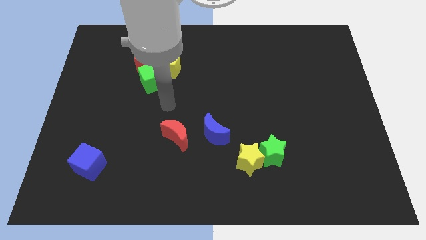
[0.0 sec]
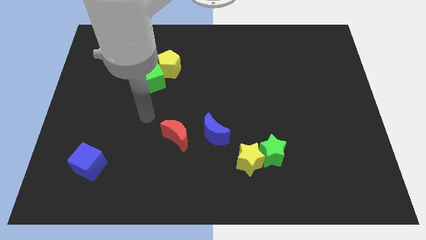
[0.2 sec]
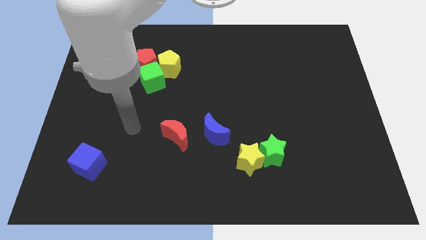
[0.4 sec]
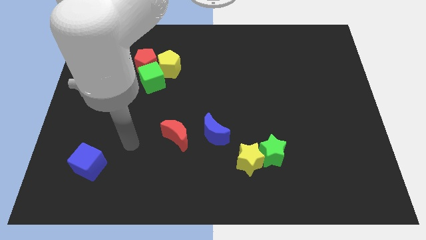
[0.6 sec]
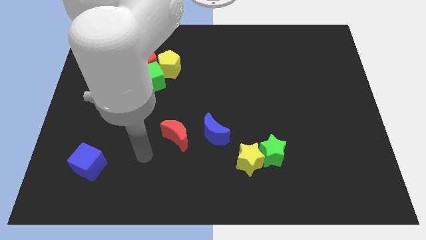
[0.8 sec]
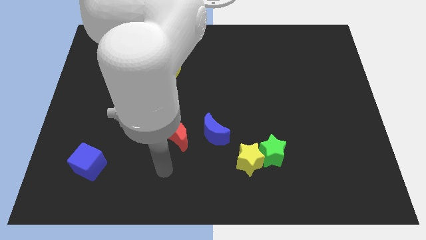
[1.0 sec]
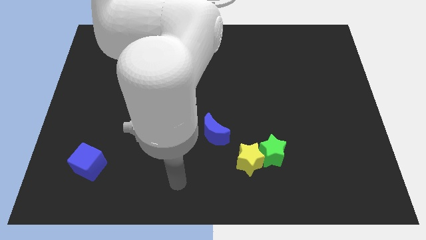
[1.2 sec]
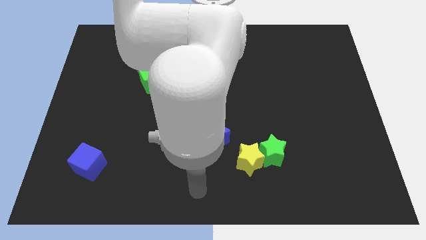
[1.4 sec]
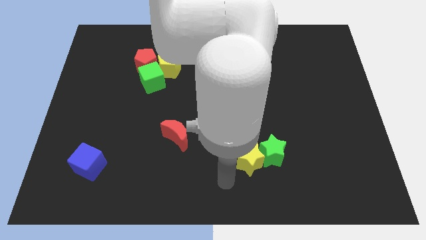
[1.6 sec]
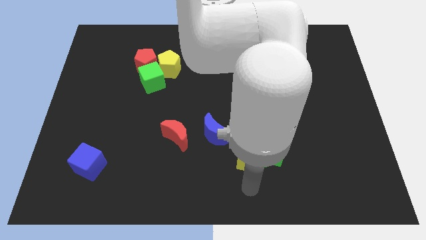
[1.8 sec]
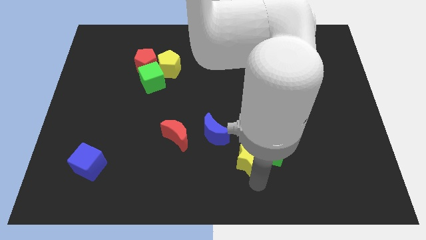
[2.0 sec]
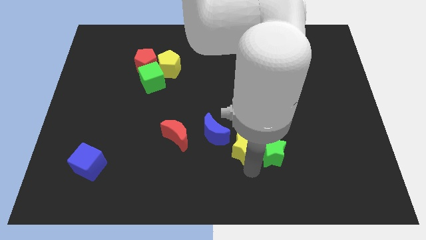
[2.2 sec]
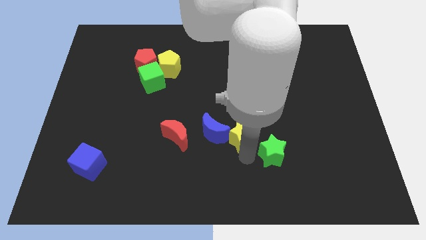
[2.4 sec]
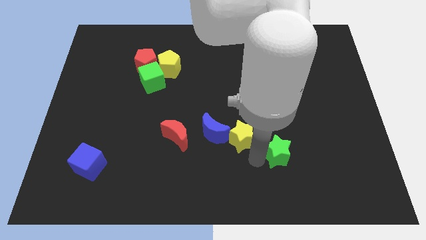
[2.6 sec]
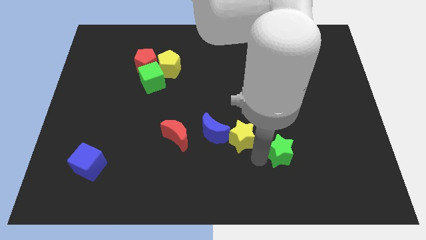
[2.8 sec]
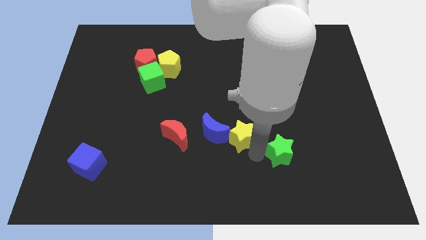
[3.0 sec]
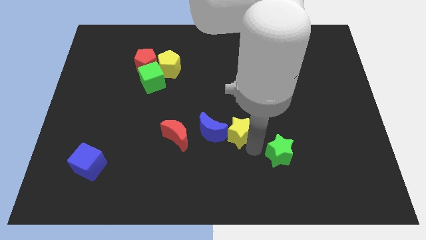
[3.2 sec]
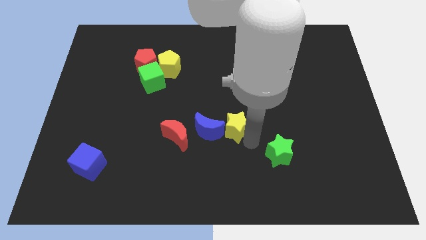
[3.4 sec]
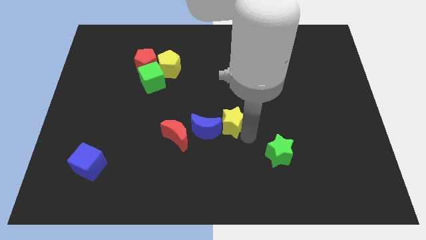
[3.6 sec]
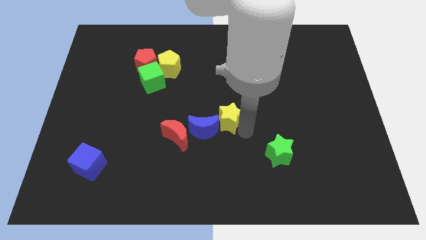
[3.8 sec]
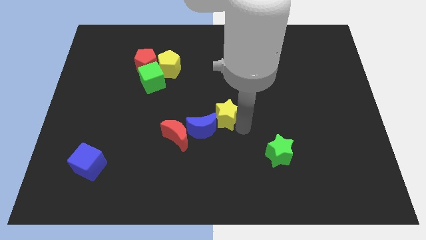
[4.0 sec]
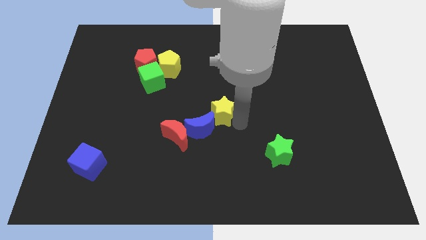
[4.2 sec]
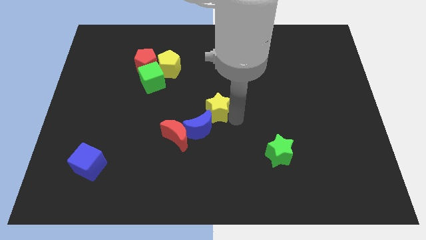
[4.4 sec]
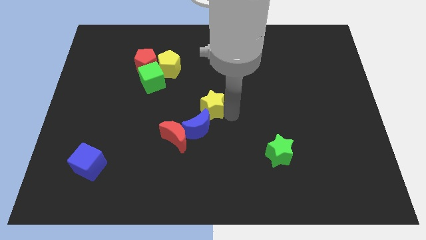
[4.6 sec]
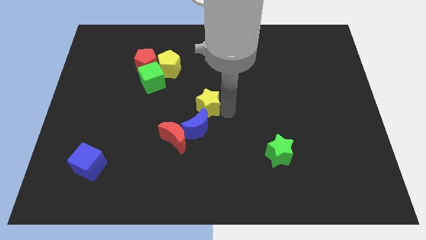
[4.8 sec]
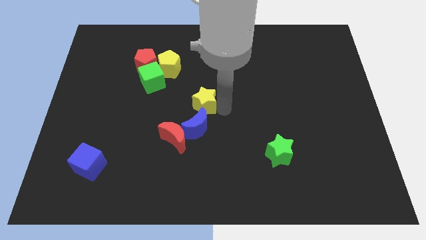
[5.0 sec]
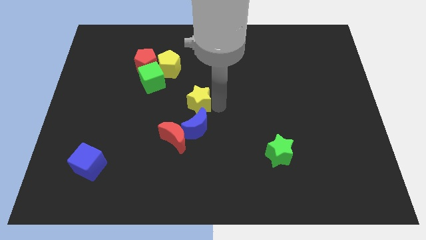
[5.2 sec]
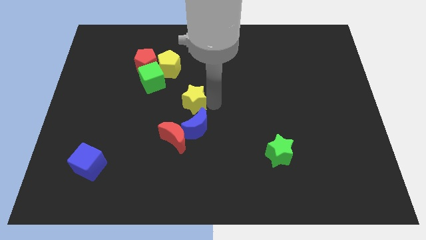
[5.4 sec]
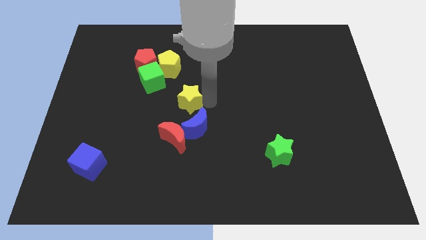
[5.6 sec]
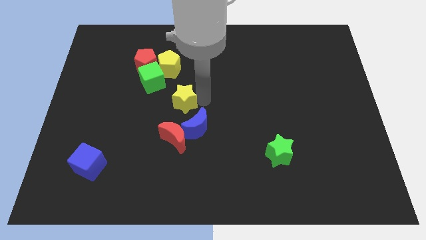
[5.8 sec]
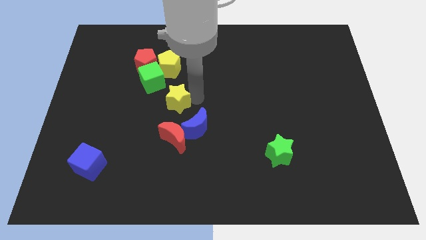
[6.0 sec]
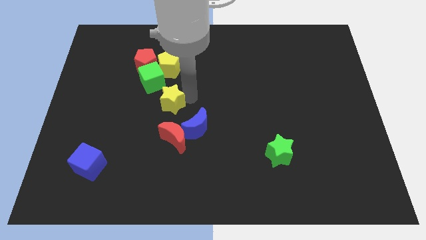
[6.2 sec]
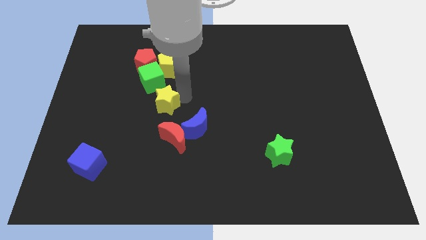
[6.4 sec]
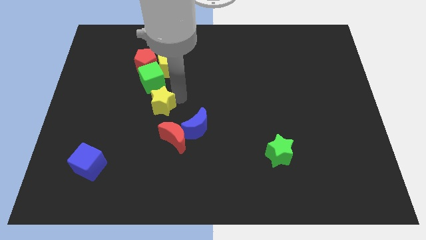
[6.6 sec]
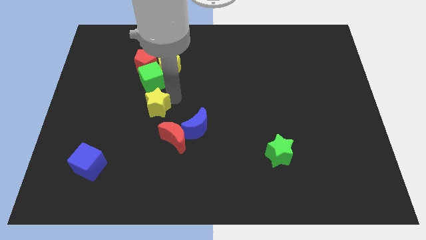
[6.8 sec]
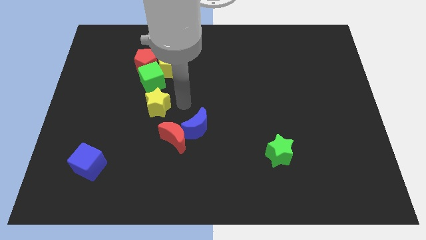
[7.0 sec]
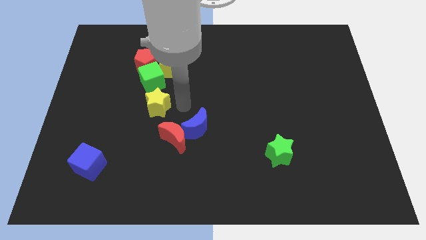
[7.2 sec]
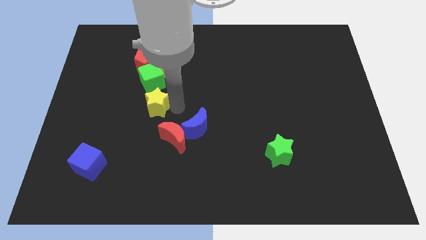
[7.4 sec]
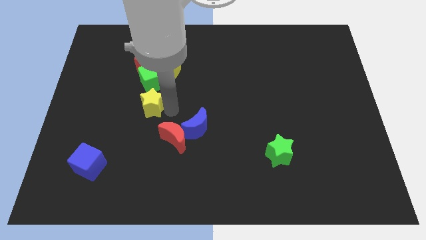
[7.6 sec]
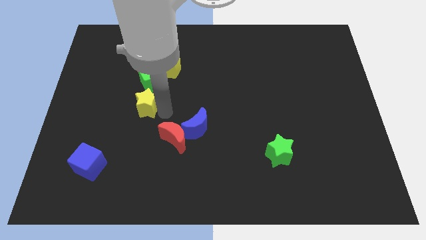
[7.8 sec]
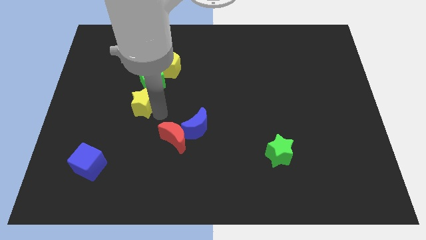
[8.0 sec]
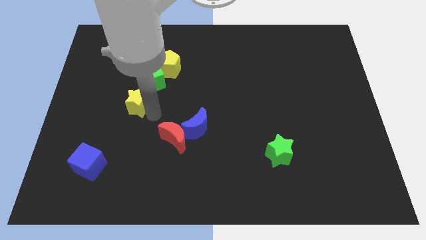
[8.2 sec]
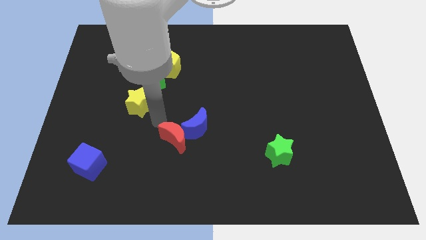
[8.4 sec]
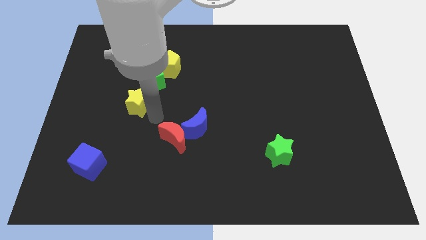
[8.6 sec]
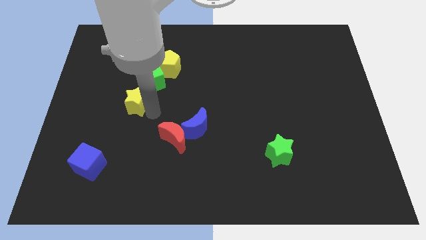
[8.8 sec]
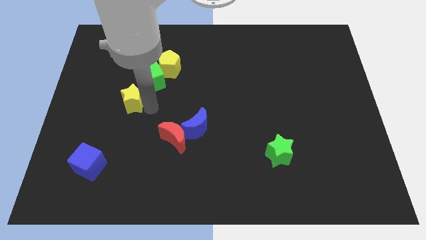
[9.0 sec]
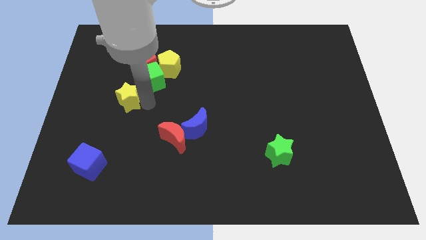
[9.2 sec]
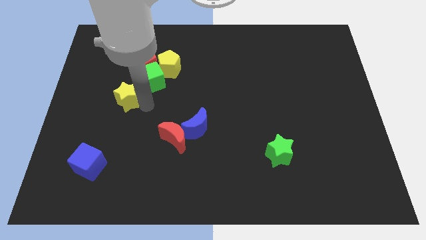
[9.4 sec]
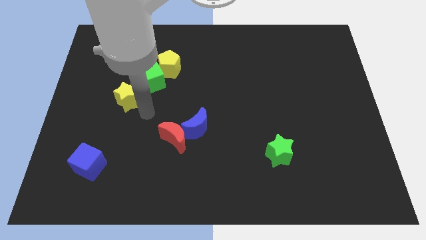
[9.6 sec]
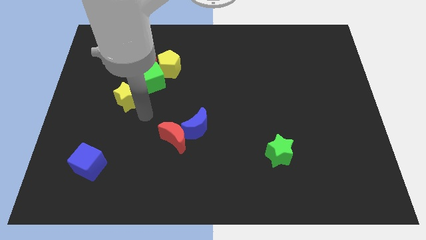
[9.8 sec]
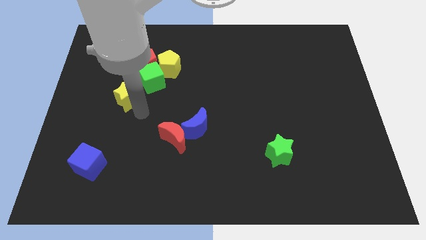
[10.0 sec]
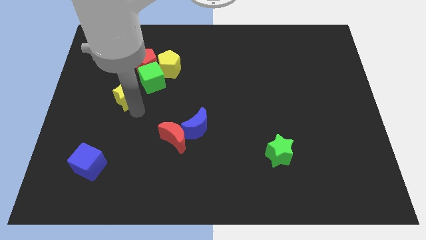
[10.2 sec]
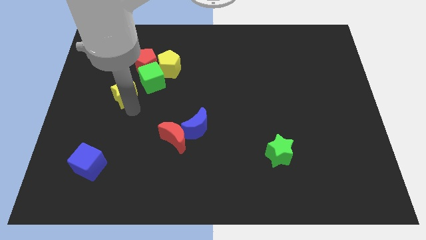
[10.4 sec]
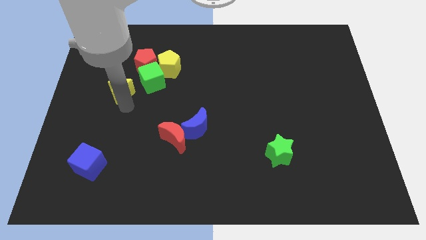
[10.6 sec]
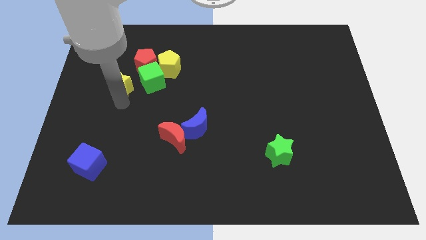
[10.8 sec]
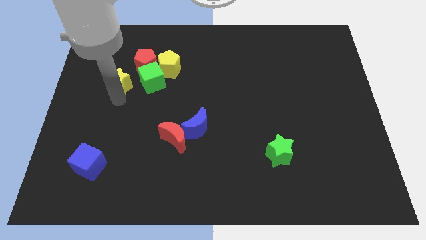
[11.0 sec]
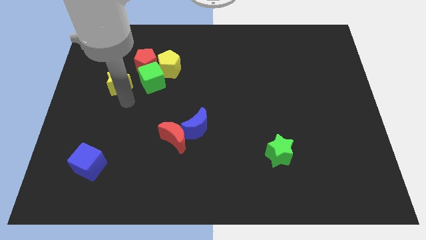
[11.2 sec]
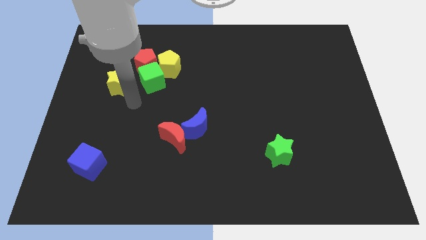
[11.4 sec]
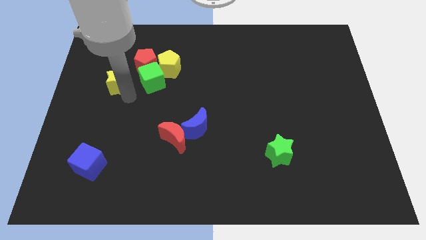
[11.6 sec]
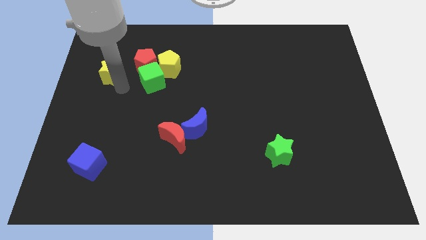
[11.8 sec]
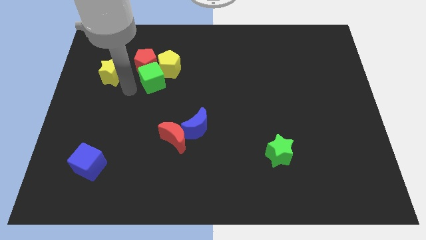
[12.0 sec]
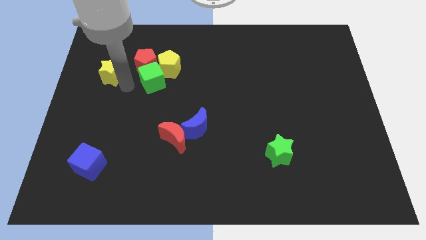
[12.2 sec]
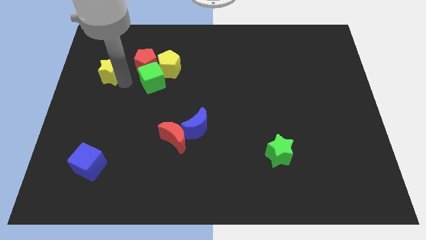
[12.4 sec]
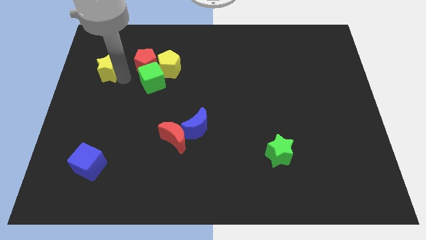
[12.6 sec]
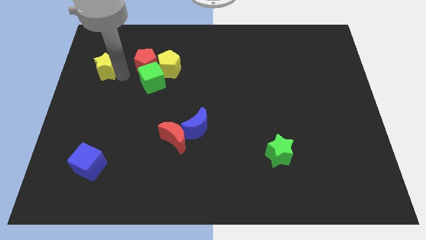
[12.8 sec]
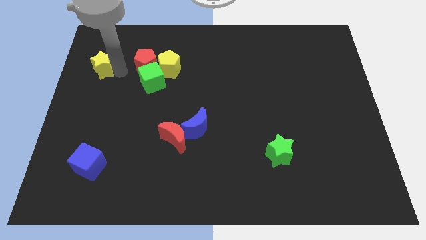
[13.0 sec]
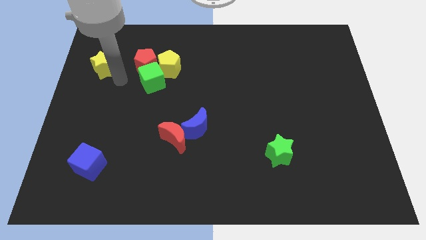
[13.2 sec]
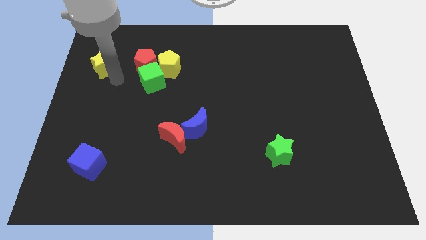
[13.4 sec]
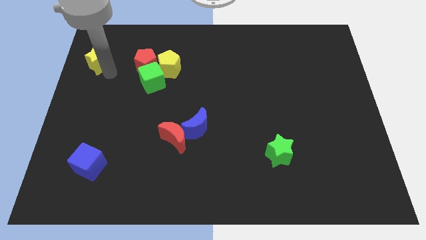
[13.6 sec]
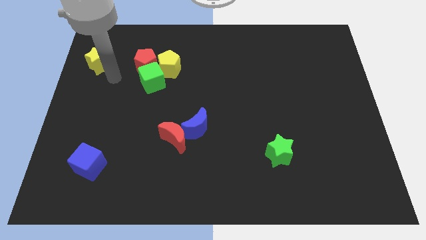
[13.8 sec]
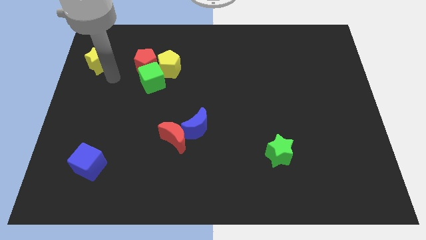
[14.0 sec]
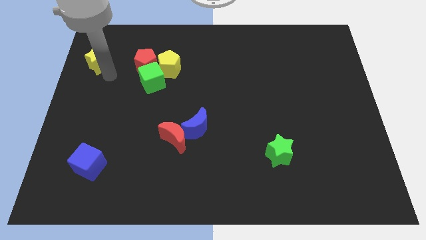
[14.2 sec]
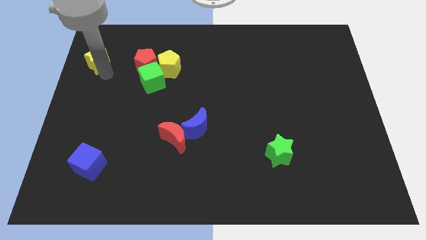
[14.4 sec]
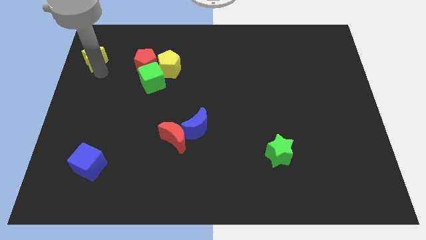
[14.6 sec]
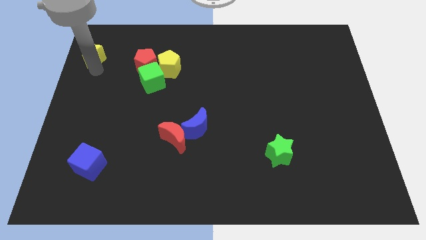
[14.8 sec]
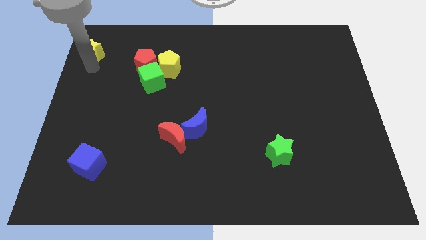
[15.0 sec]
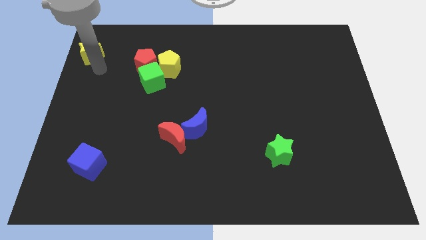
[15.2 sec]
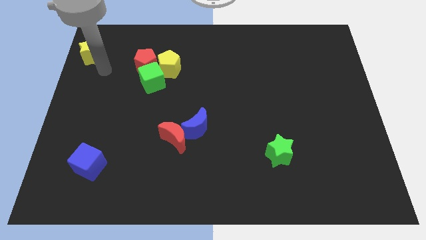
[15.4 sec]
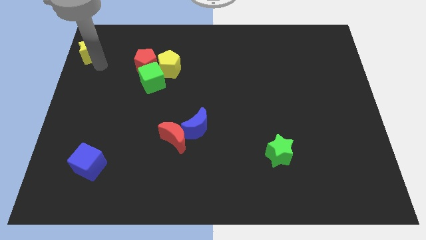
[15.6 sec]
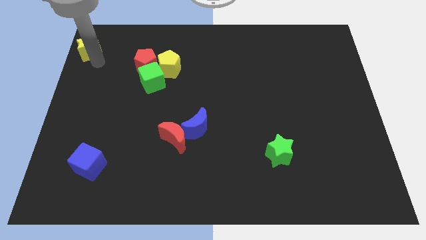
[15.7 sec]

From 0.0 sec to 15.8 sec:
put the yellow star to the upper left corner

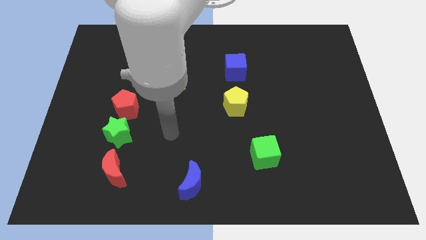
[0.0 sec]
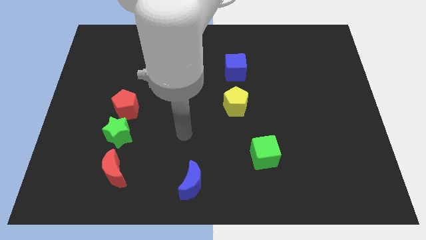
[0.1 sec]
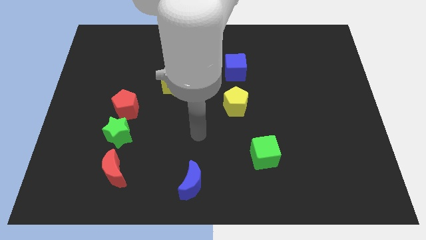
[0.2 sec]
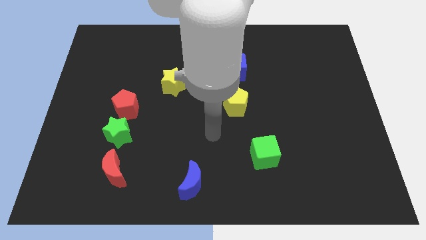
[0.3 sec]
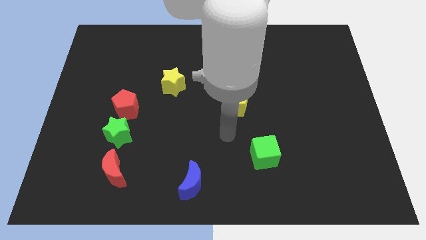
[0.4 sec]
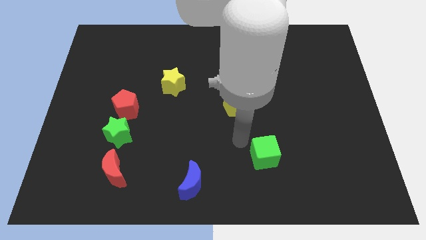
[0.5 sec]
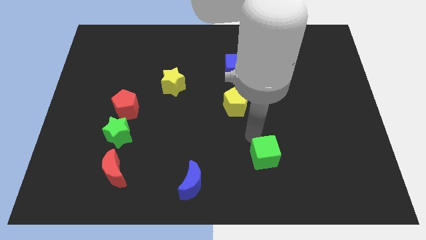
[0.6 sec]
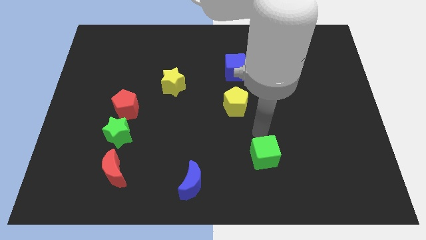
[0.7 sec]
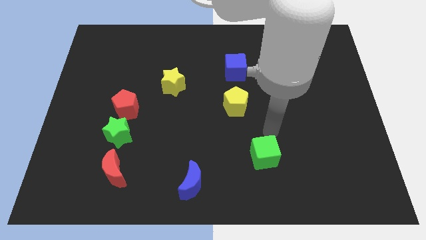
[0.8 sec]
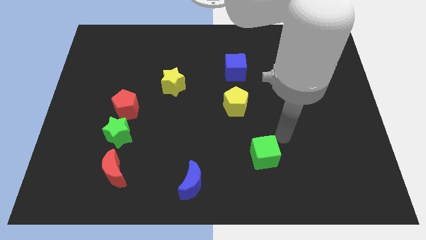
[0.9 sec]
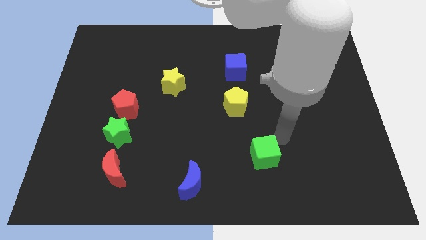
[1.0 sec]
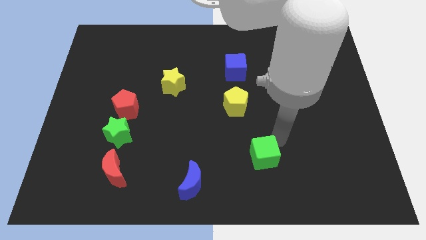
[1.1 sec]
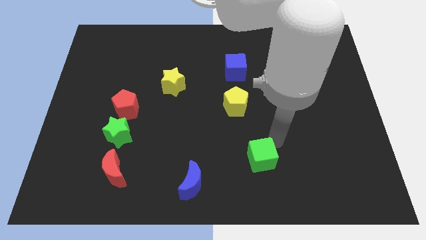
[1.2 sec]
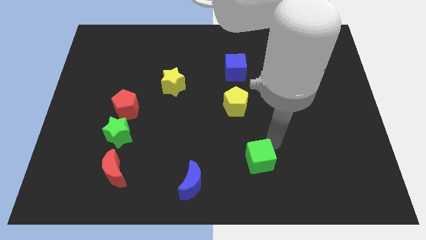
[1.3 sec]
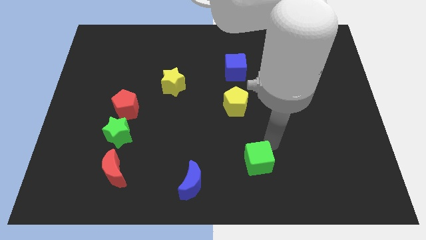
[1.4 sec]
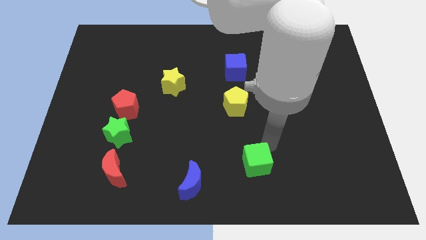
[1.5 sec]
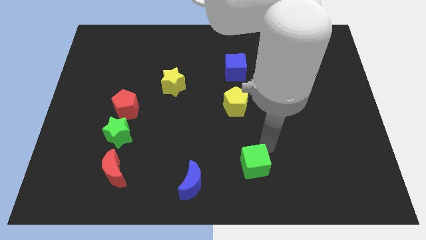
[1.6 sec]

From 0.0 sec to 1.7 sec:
put the green cube to the bottom
